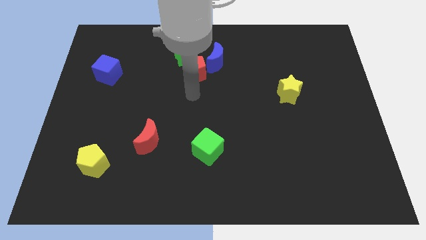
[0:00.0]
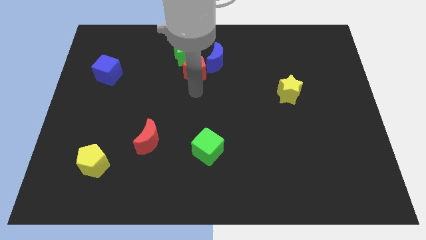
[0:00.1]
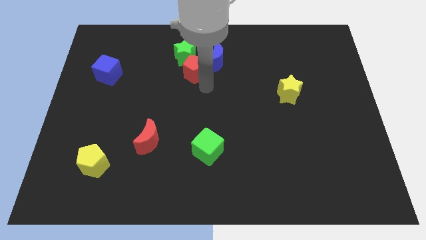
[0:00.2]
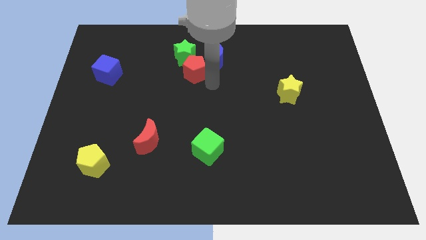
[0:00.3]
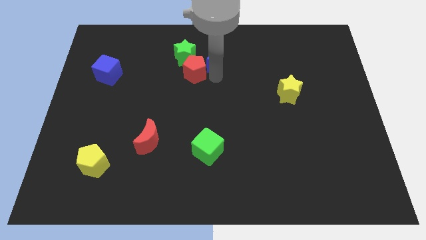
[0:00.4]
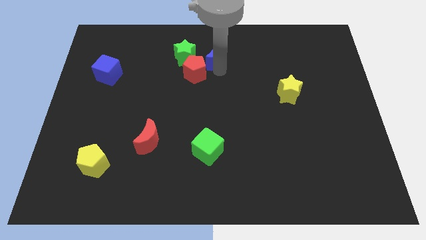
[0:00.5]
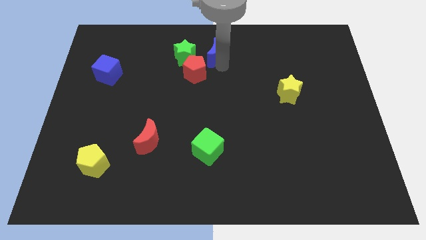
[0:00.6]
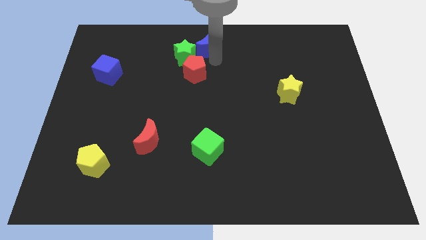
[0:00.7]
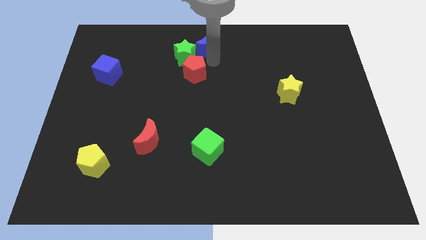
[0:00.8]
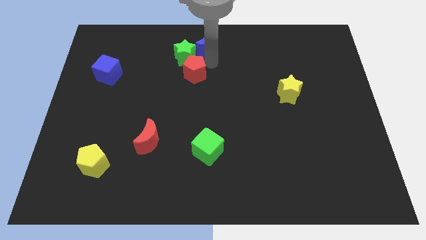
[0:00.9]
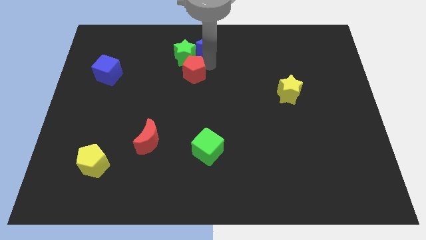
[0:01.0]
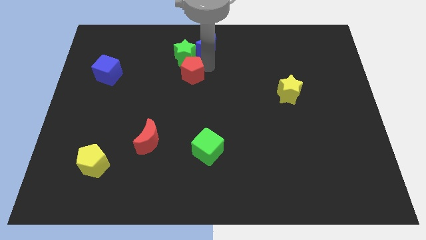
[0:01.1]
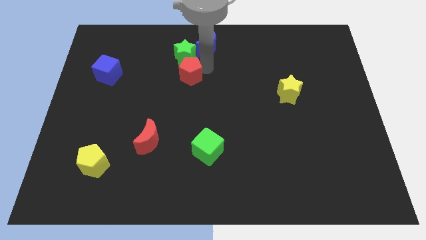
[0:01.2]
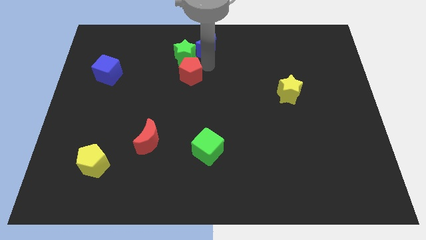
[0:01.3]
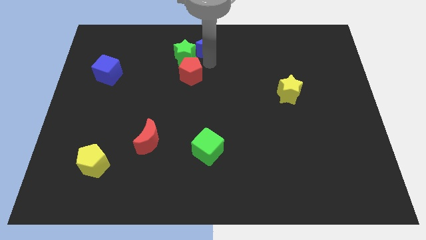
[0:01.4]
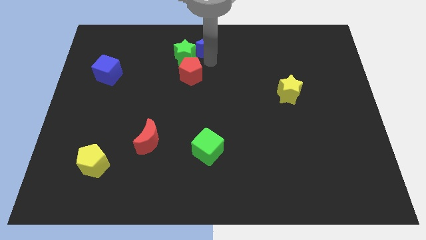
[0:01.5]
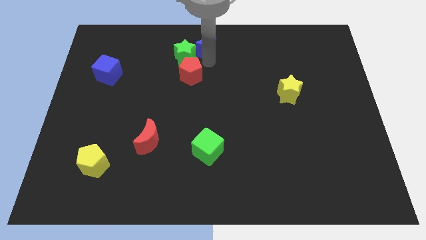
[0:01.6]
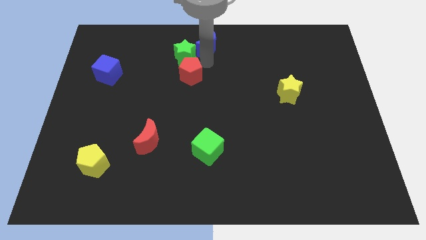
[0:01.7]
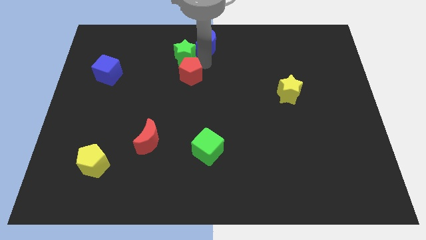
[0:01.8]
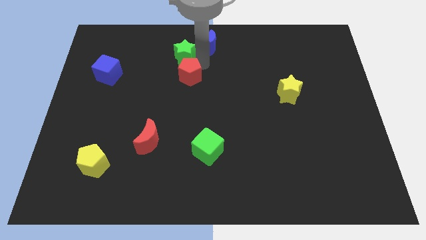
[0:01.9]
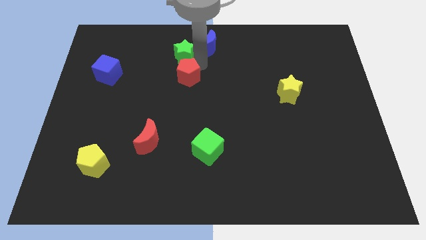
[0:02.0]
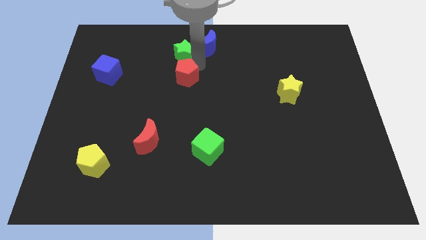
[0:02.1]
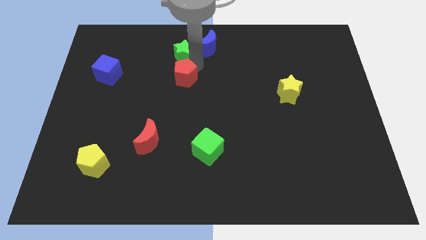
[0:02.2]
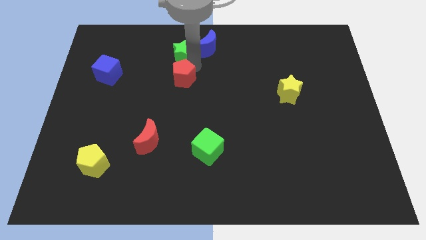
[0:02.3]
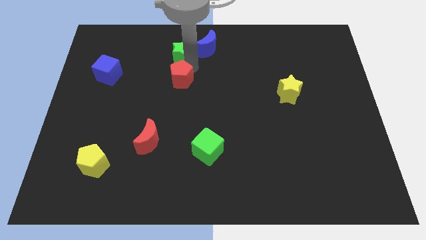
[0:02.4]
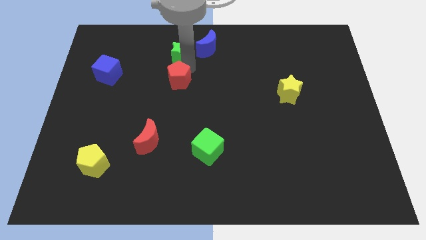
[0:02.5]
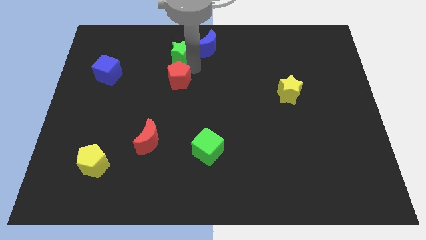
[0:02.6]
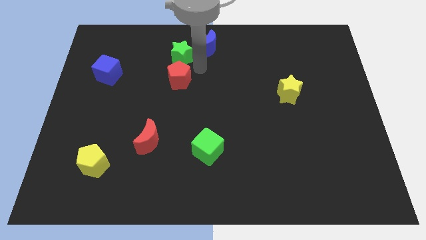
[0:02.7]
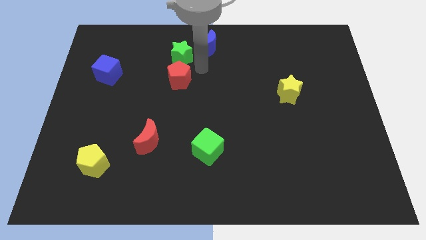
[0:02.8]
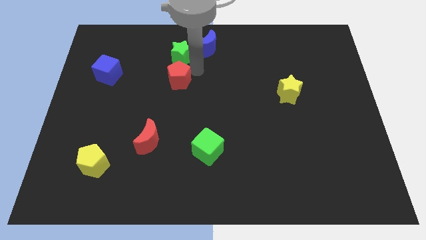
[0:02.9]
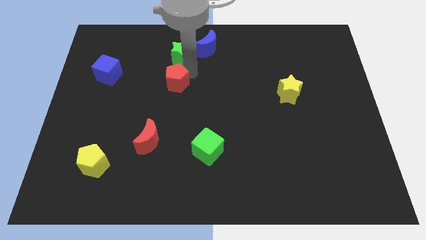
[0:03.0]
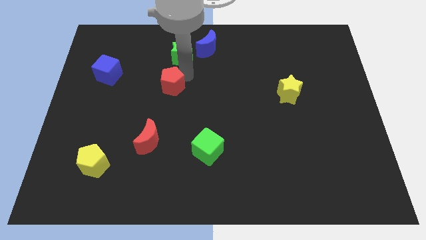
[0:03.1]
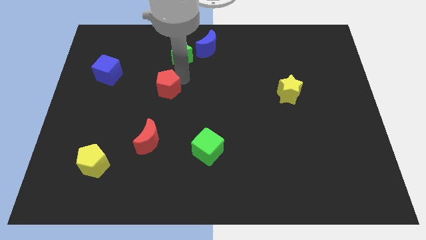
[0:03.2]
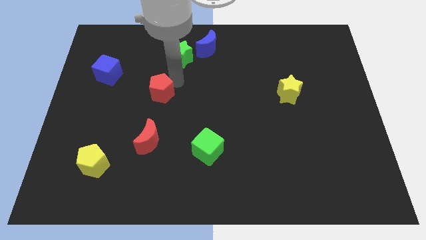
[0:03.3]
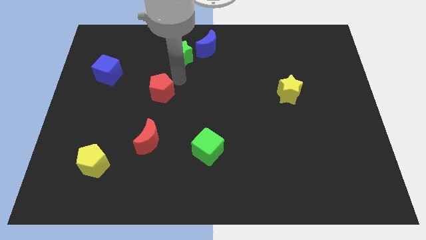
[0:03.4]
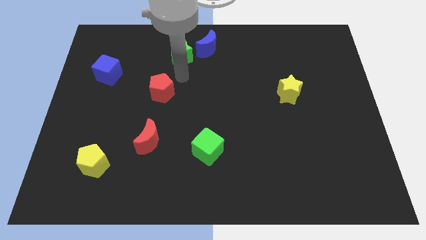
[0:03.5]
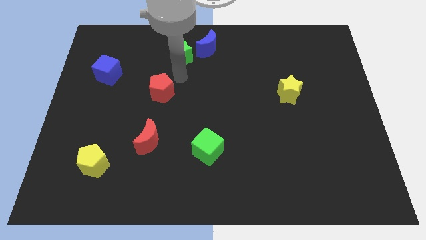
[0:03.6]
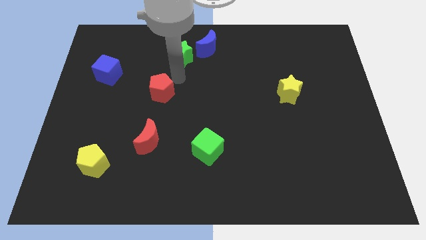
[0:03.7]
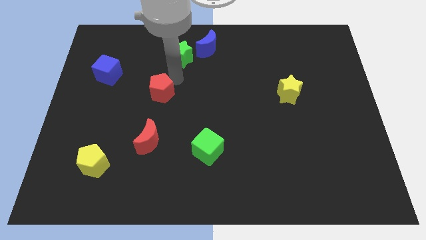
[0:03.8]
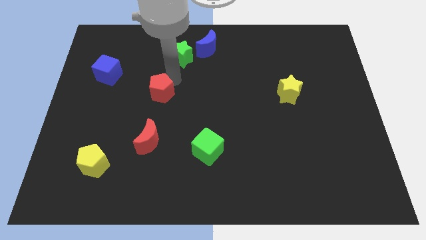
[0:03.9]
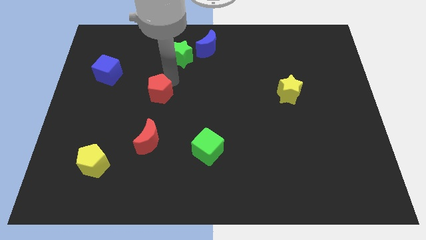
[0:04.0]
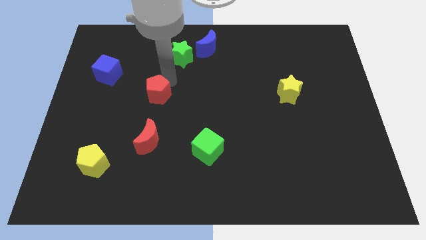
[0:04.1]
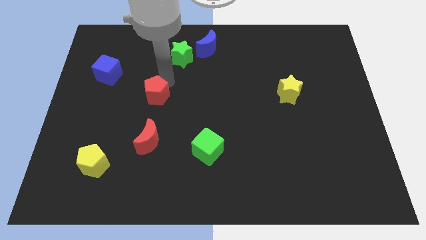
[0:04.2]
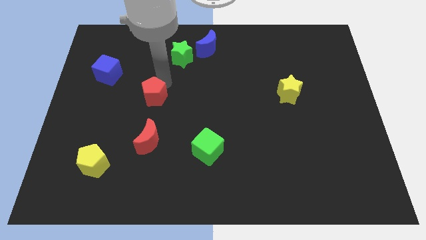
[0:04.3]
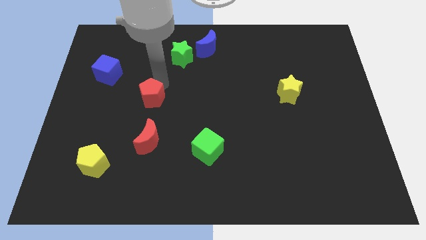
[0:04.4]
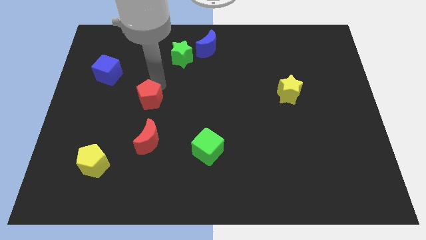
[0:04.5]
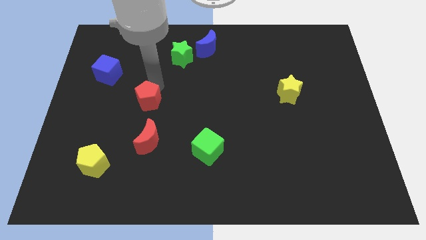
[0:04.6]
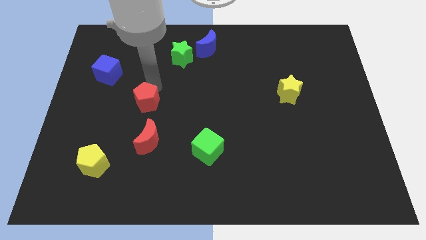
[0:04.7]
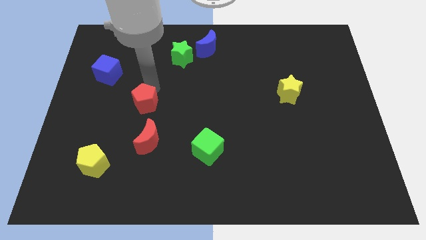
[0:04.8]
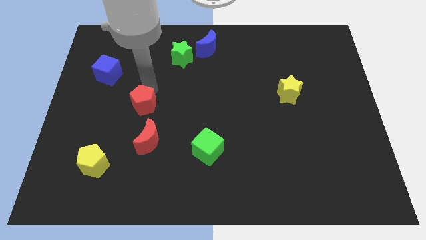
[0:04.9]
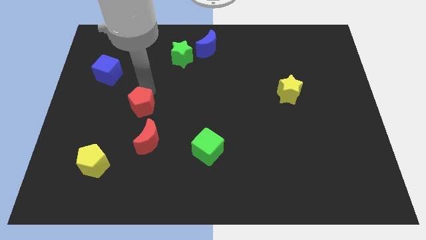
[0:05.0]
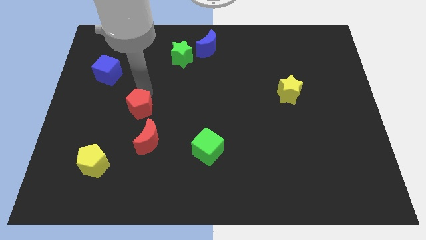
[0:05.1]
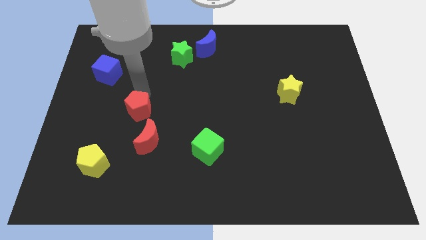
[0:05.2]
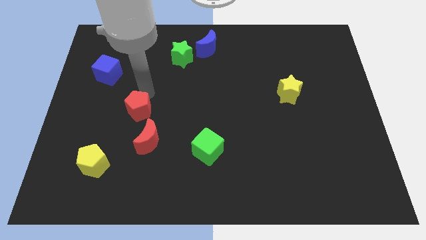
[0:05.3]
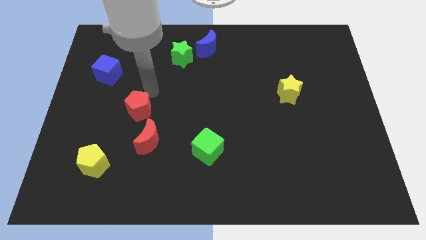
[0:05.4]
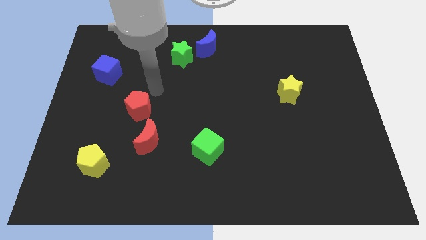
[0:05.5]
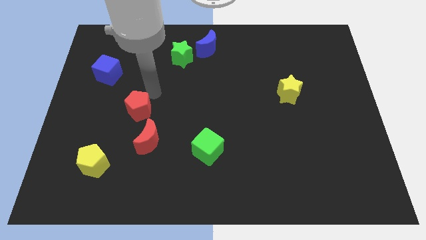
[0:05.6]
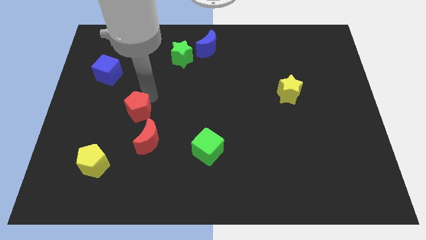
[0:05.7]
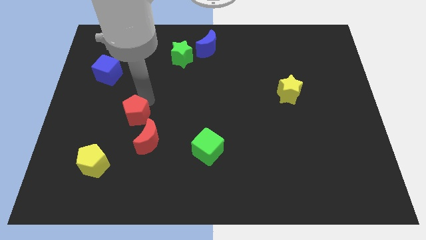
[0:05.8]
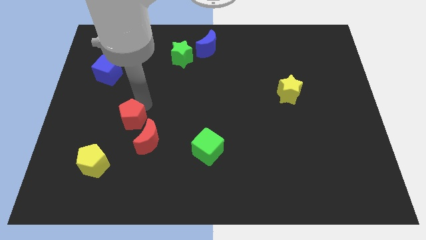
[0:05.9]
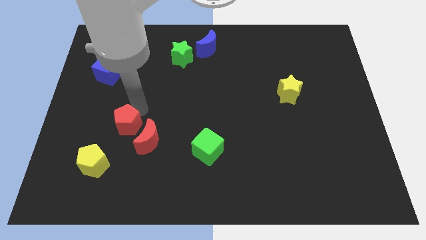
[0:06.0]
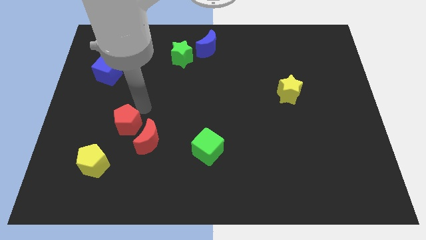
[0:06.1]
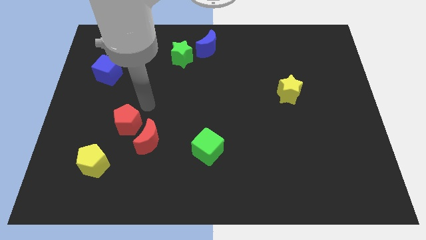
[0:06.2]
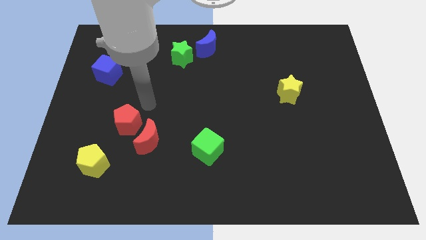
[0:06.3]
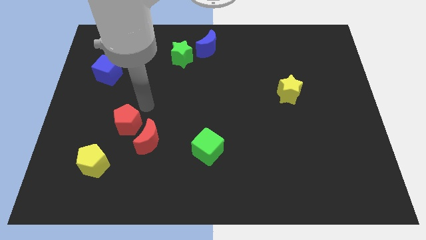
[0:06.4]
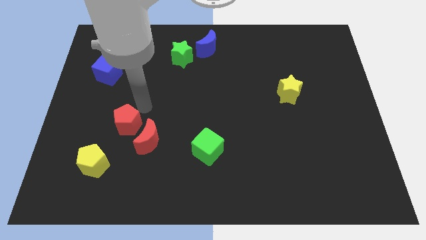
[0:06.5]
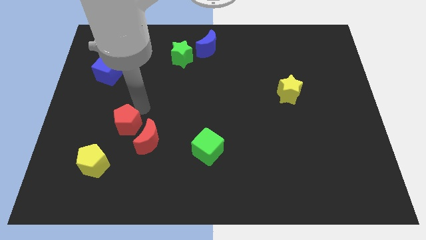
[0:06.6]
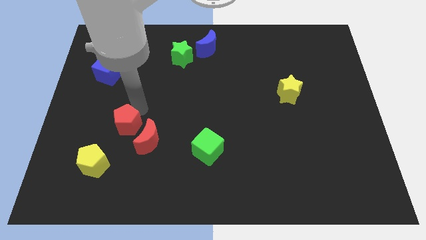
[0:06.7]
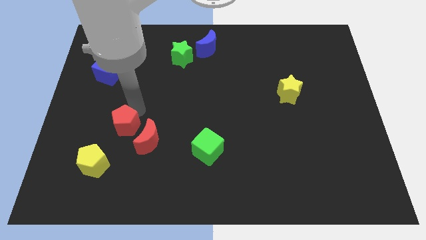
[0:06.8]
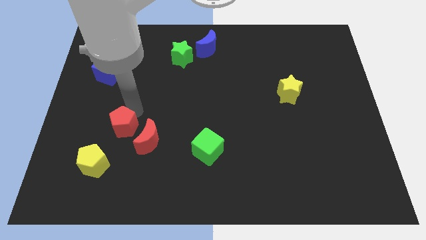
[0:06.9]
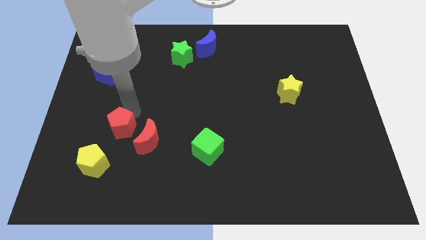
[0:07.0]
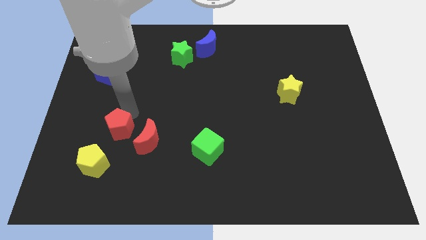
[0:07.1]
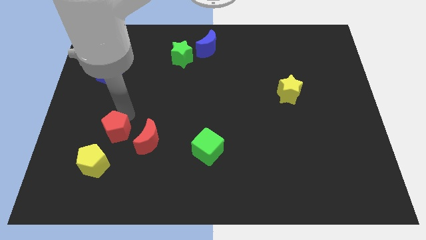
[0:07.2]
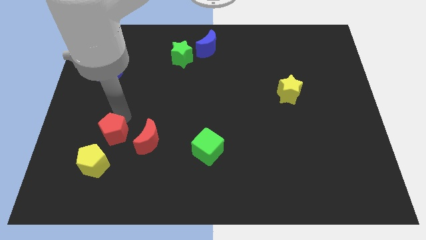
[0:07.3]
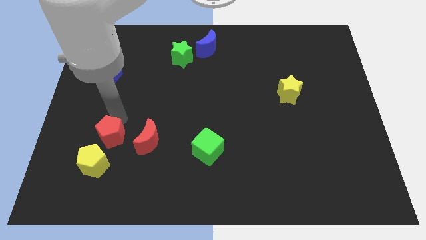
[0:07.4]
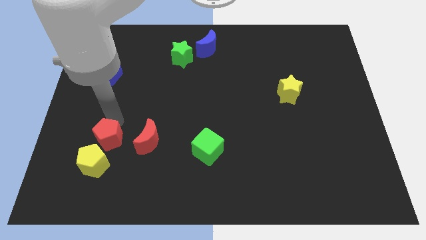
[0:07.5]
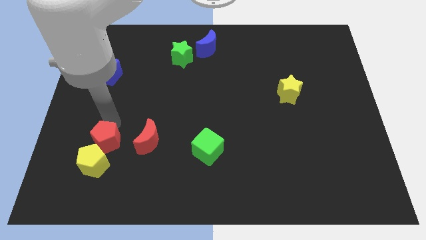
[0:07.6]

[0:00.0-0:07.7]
push the red pentagon close to the yellow pentagon
